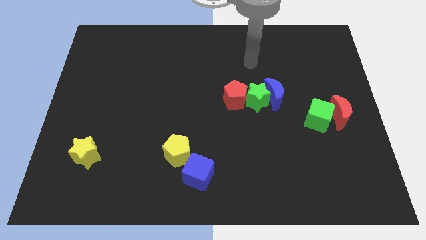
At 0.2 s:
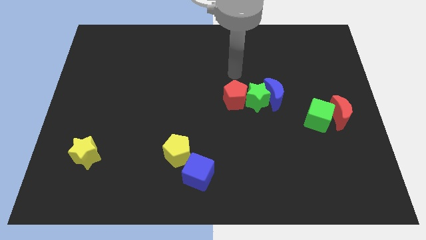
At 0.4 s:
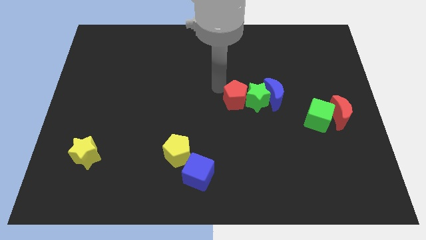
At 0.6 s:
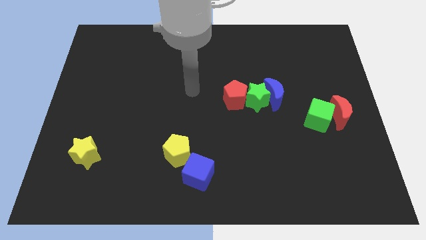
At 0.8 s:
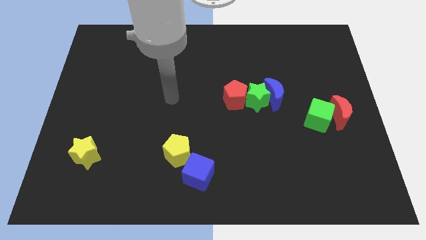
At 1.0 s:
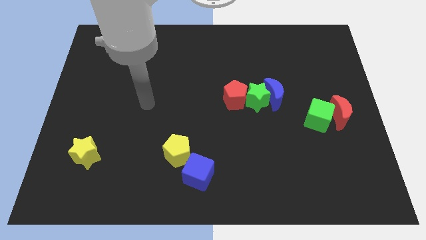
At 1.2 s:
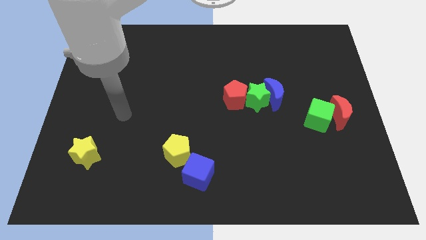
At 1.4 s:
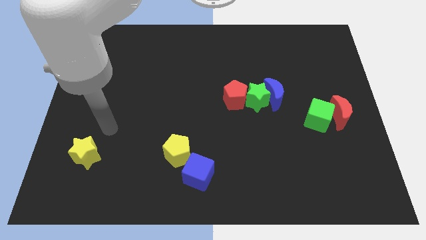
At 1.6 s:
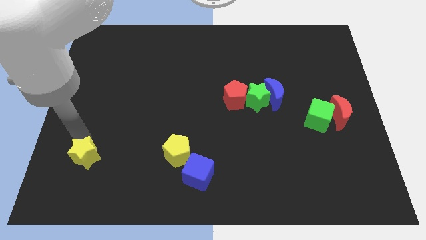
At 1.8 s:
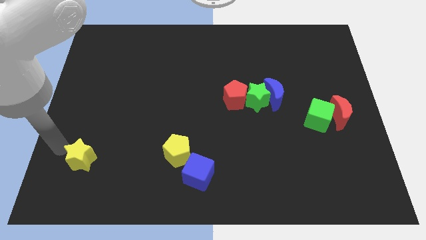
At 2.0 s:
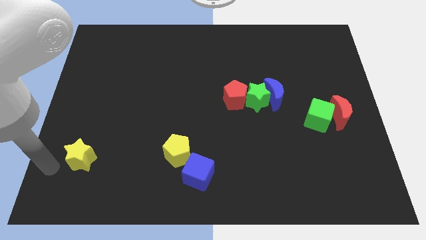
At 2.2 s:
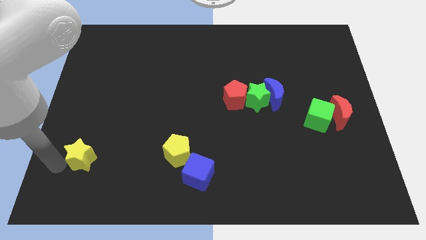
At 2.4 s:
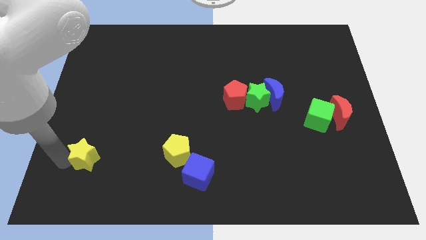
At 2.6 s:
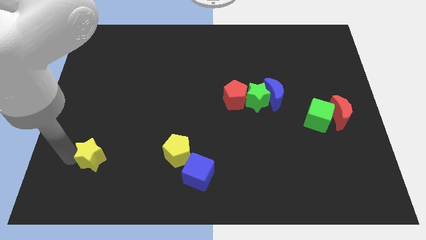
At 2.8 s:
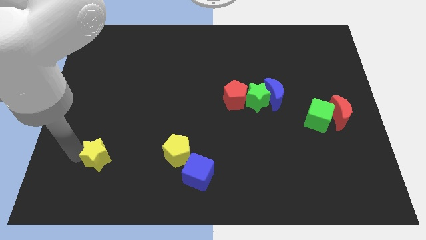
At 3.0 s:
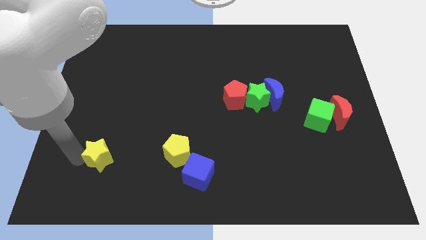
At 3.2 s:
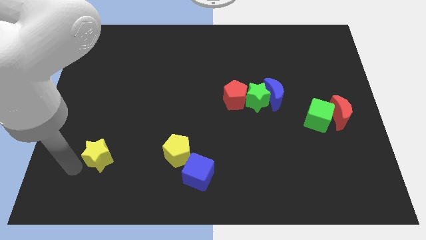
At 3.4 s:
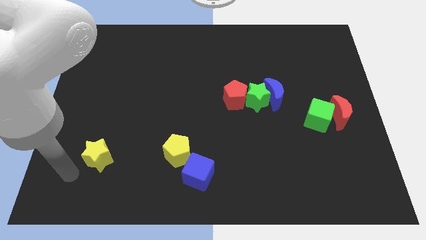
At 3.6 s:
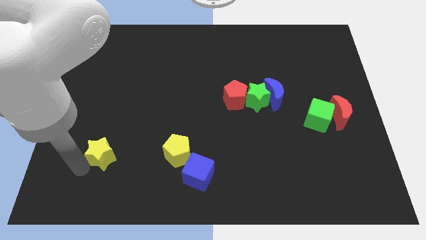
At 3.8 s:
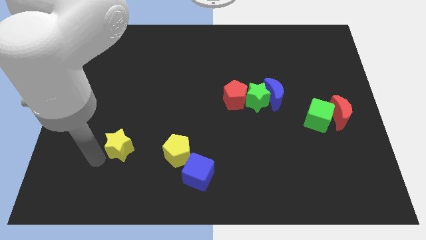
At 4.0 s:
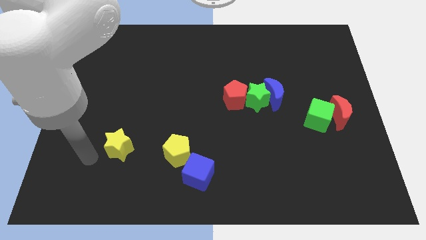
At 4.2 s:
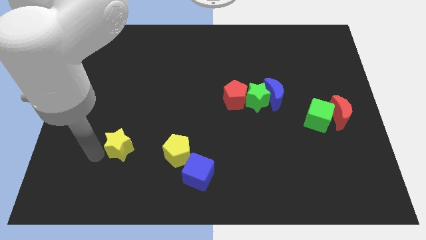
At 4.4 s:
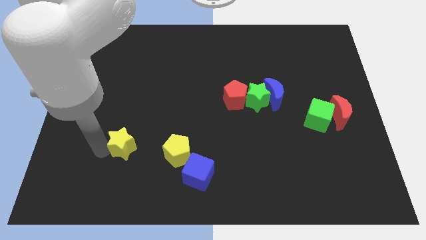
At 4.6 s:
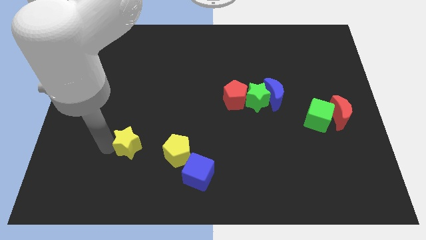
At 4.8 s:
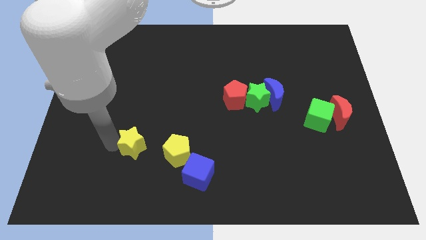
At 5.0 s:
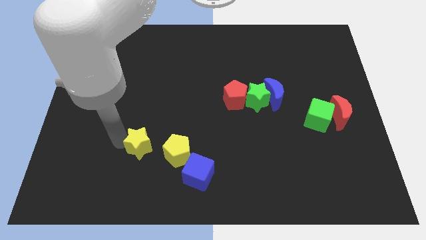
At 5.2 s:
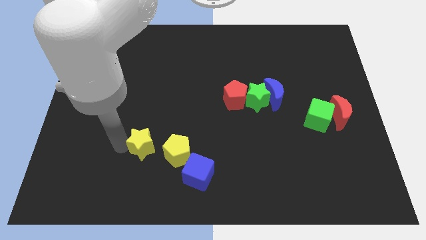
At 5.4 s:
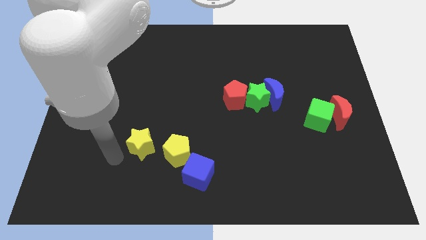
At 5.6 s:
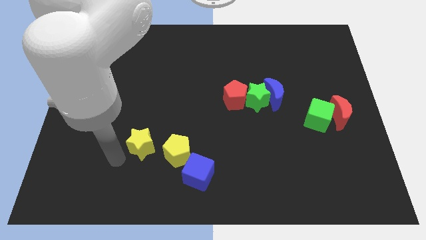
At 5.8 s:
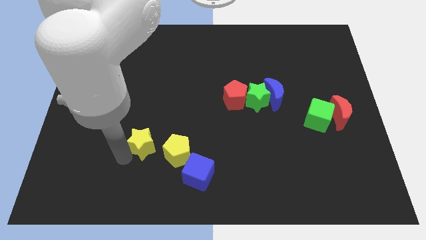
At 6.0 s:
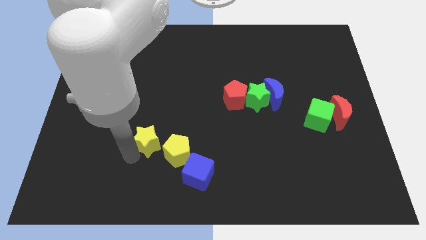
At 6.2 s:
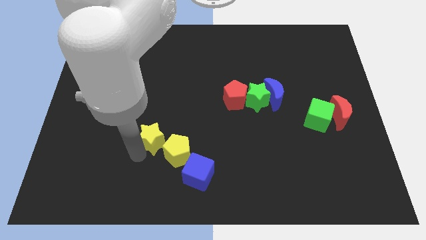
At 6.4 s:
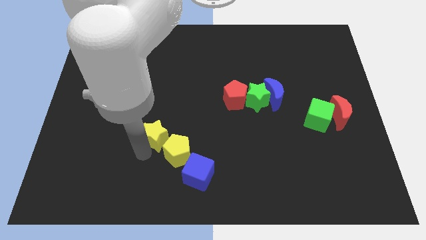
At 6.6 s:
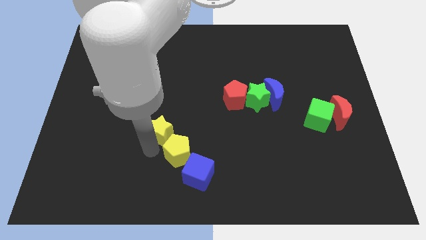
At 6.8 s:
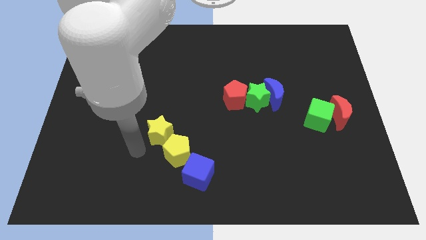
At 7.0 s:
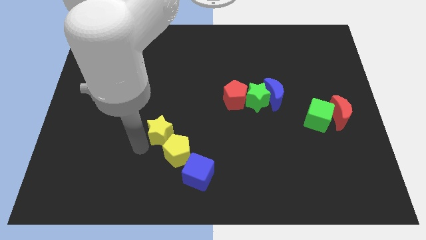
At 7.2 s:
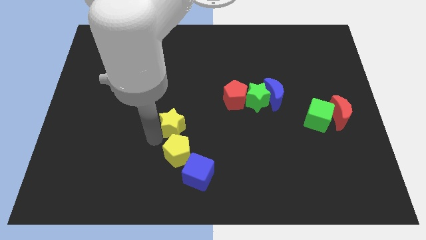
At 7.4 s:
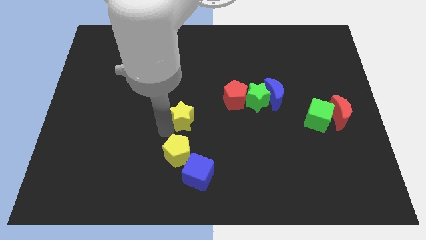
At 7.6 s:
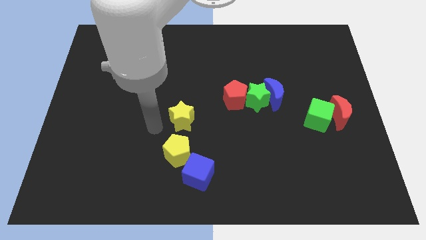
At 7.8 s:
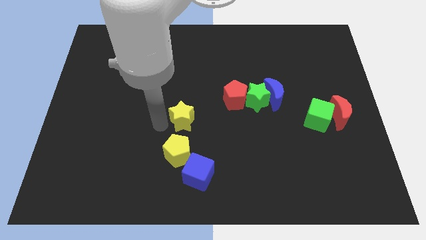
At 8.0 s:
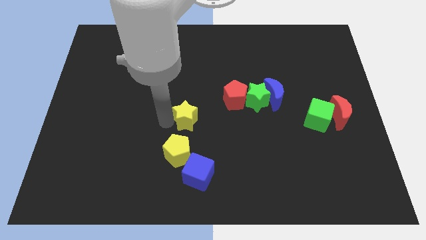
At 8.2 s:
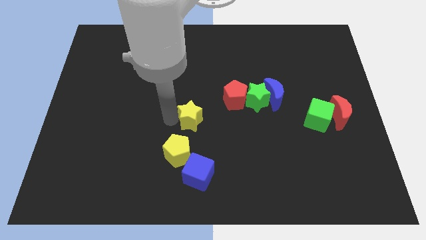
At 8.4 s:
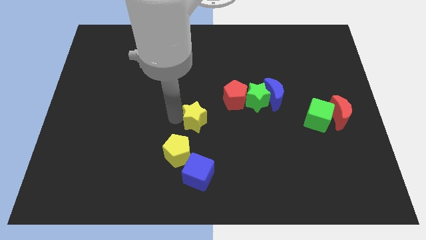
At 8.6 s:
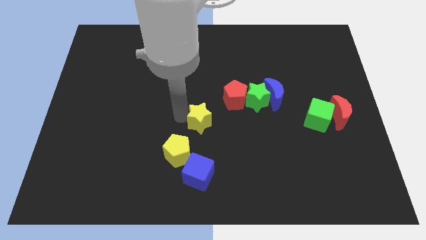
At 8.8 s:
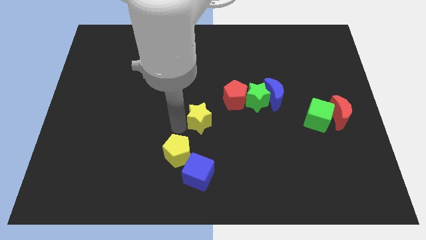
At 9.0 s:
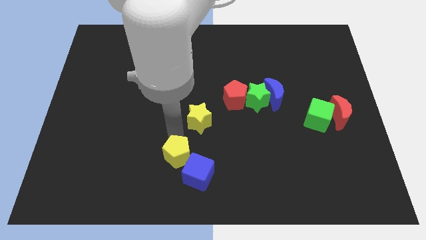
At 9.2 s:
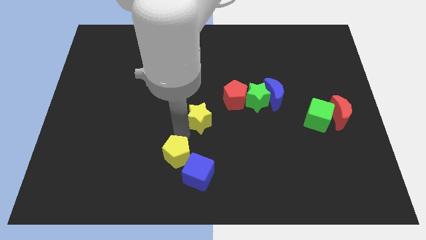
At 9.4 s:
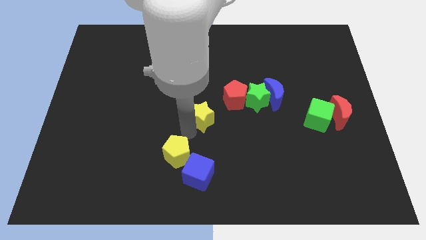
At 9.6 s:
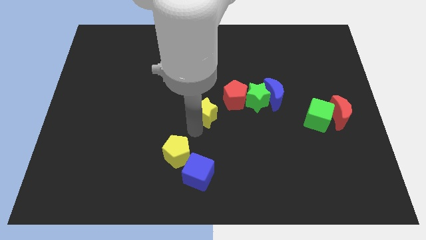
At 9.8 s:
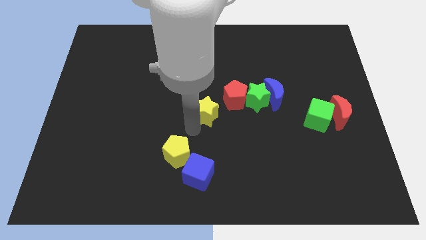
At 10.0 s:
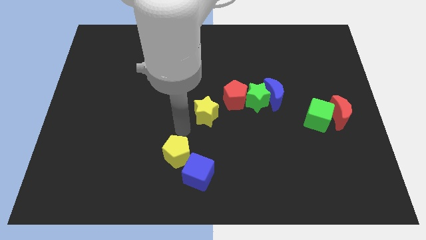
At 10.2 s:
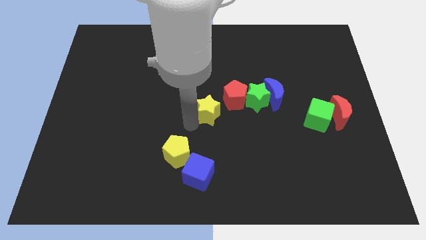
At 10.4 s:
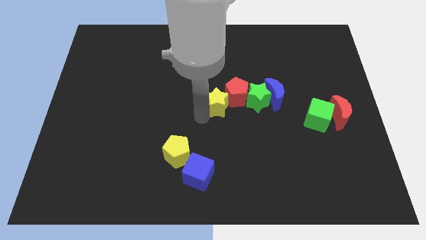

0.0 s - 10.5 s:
put the yellow star next to the red pentagon

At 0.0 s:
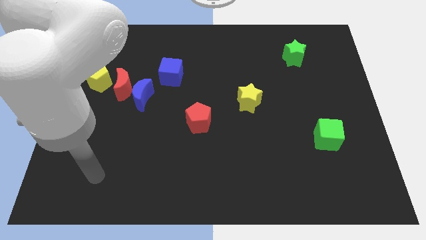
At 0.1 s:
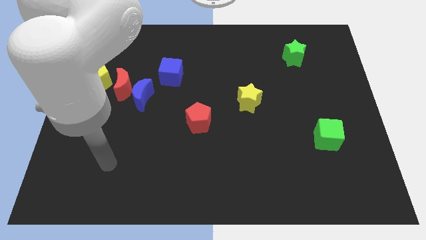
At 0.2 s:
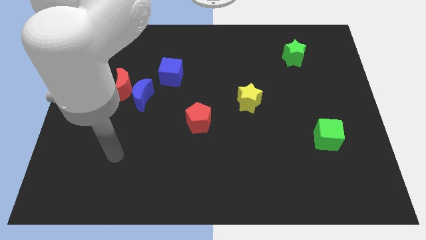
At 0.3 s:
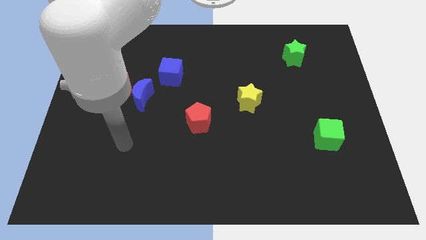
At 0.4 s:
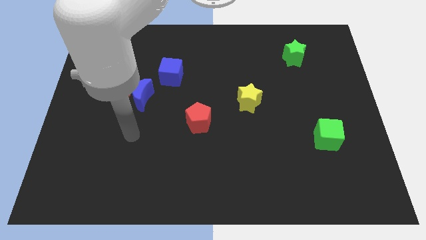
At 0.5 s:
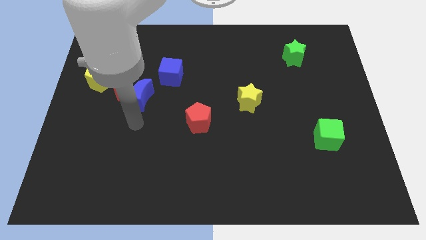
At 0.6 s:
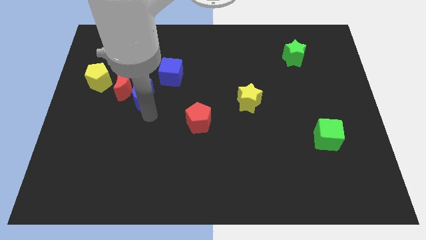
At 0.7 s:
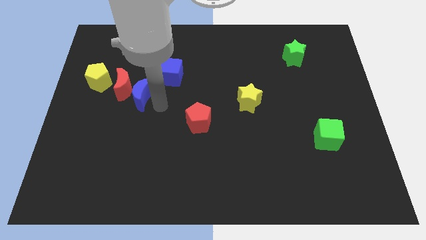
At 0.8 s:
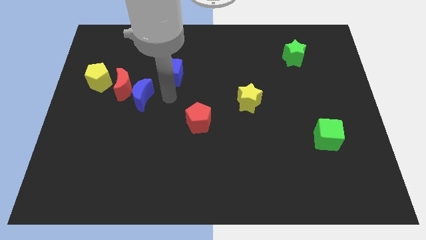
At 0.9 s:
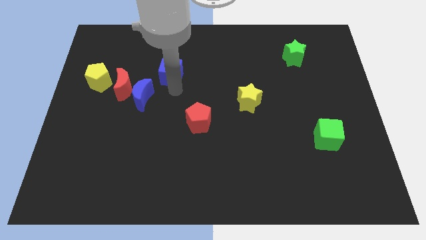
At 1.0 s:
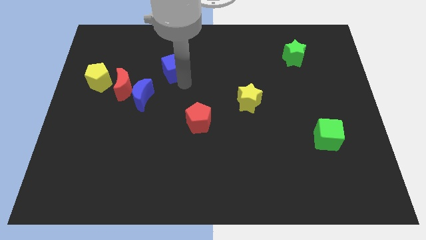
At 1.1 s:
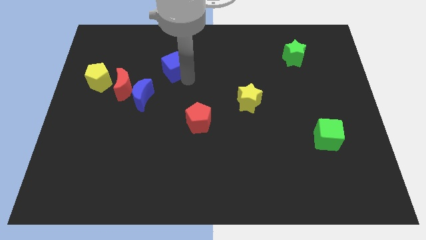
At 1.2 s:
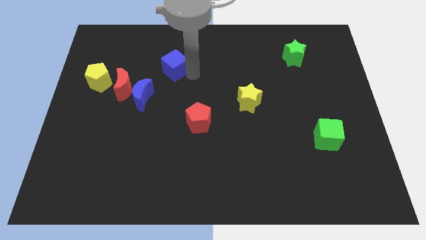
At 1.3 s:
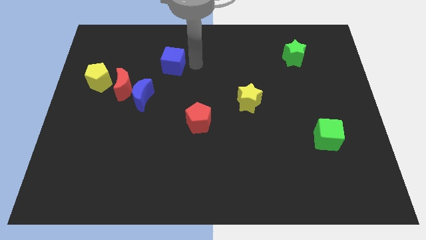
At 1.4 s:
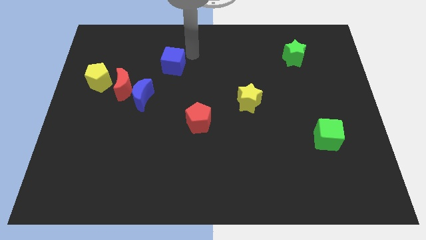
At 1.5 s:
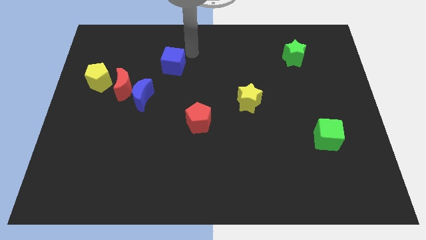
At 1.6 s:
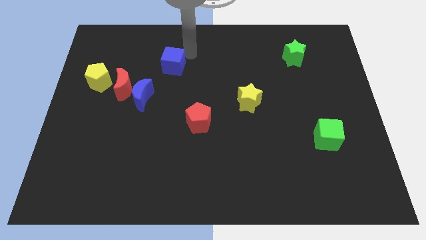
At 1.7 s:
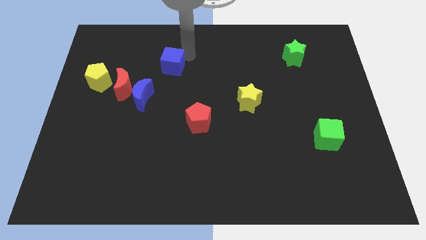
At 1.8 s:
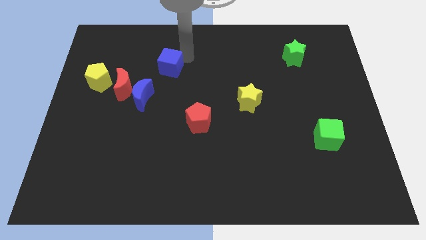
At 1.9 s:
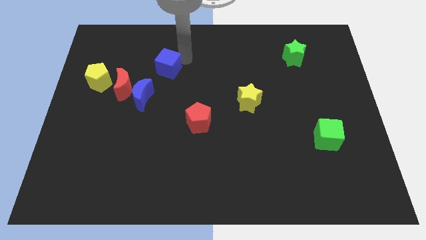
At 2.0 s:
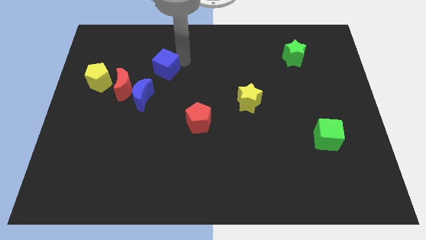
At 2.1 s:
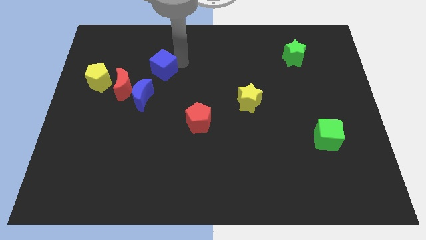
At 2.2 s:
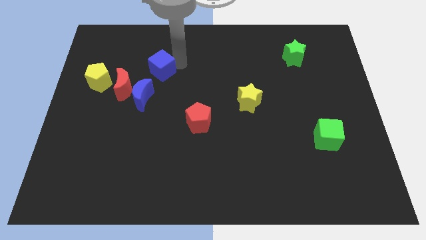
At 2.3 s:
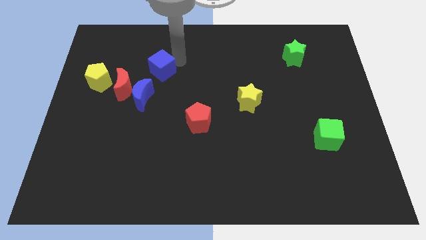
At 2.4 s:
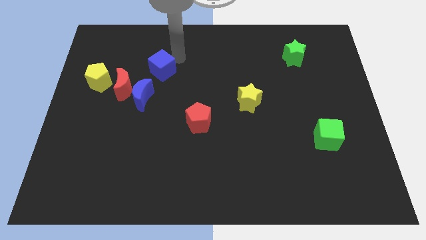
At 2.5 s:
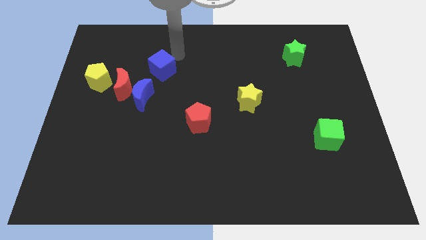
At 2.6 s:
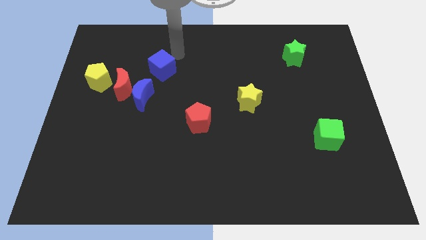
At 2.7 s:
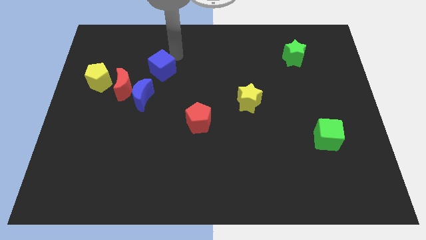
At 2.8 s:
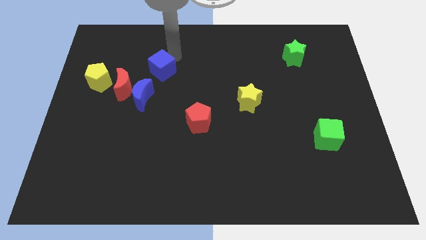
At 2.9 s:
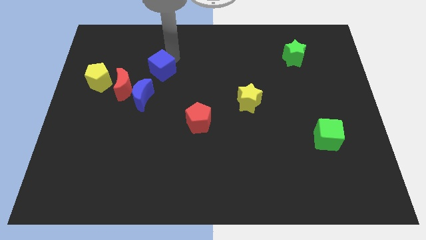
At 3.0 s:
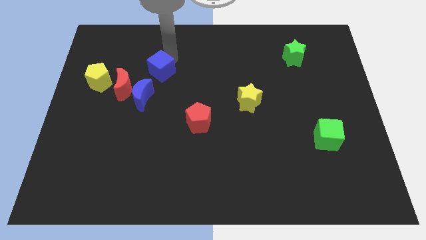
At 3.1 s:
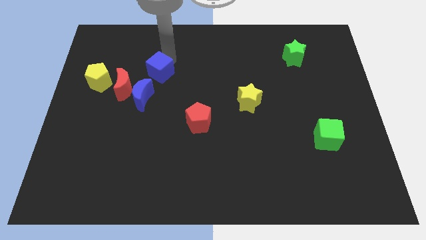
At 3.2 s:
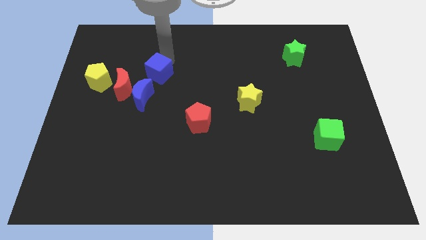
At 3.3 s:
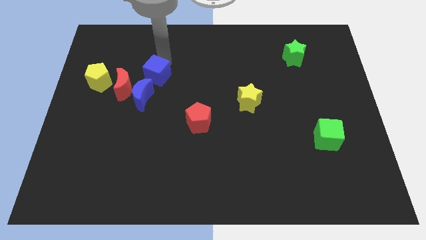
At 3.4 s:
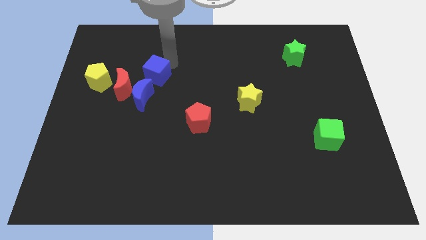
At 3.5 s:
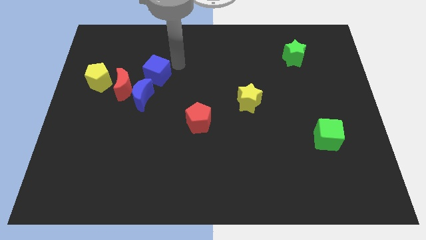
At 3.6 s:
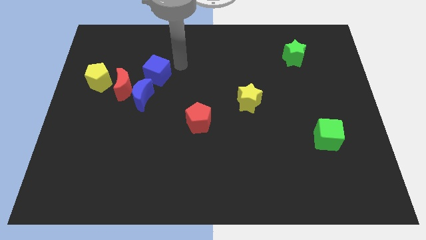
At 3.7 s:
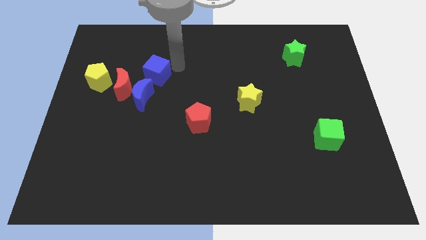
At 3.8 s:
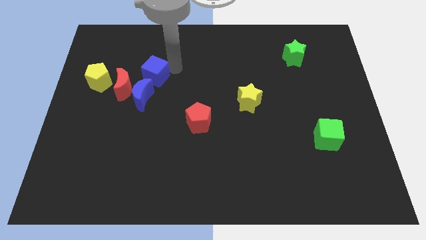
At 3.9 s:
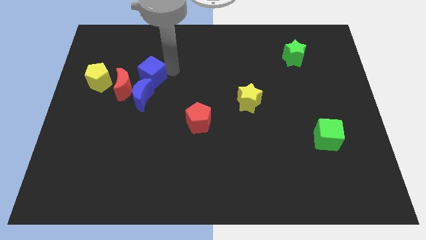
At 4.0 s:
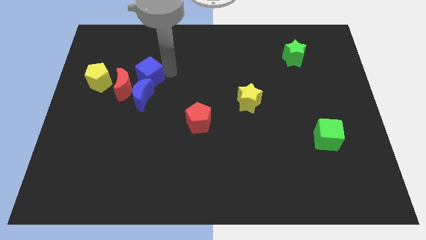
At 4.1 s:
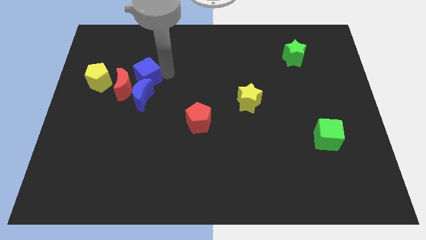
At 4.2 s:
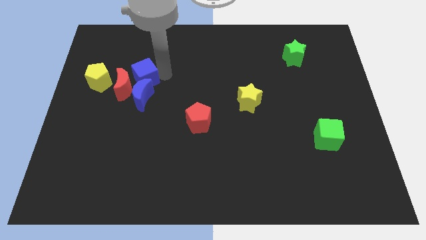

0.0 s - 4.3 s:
put the blue cube towards the red moon
